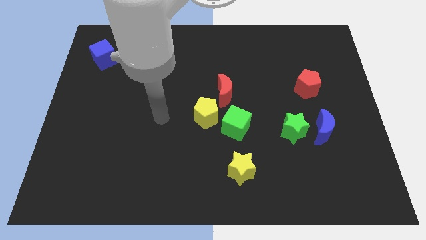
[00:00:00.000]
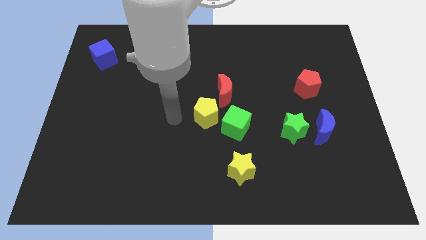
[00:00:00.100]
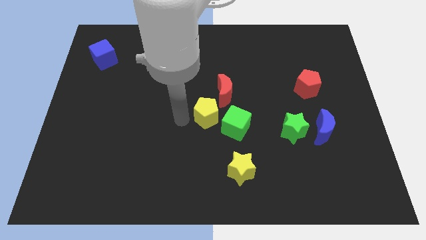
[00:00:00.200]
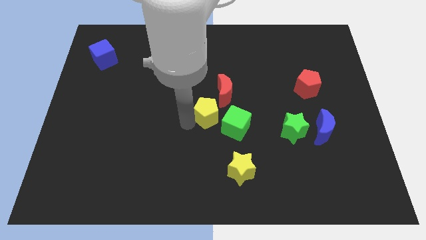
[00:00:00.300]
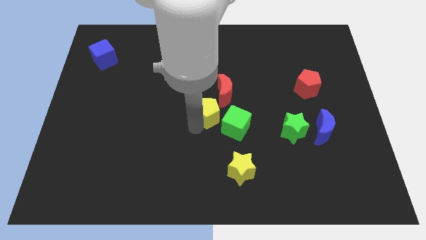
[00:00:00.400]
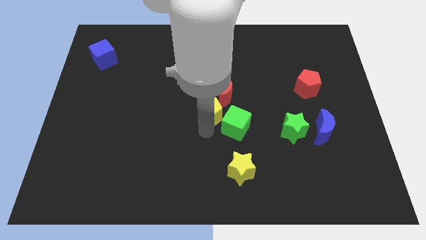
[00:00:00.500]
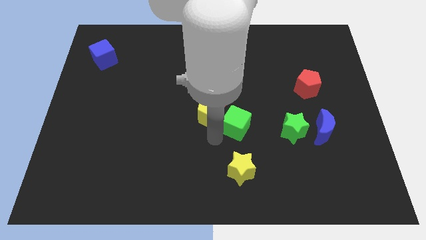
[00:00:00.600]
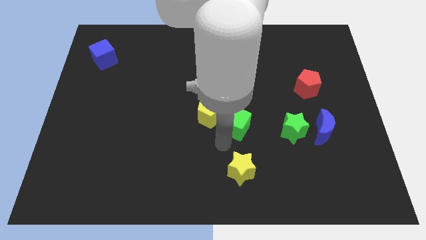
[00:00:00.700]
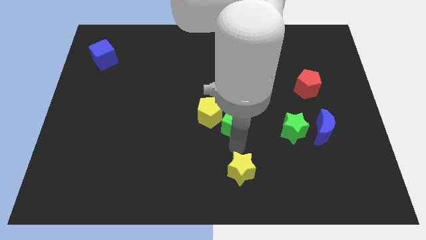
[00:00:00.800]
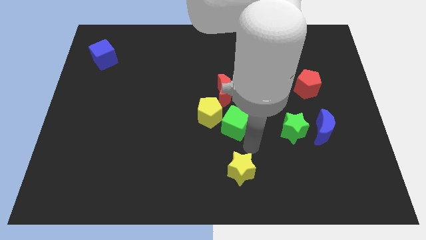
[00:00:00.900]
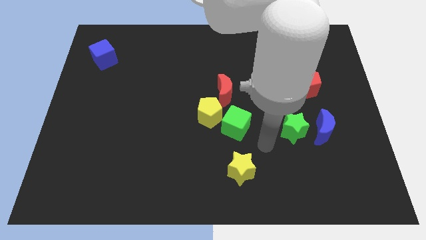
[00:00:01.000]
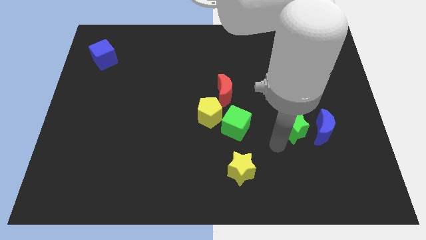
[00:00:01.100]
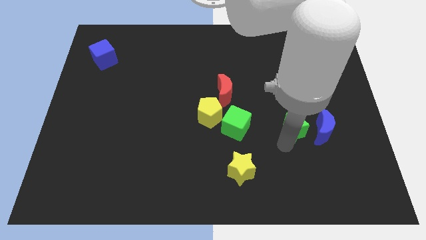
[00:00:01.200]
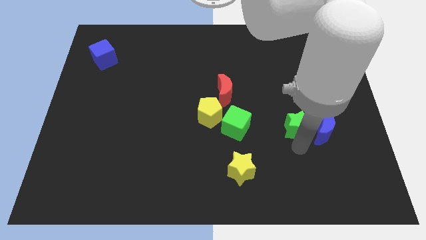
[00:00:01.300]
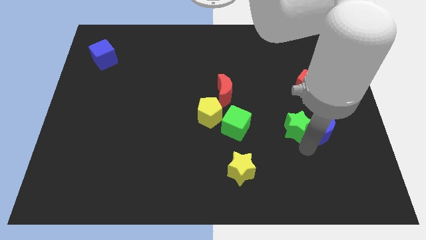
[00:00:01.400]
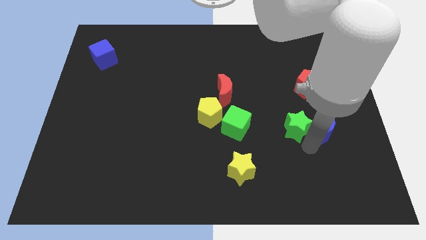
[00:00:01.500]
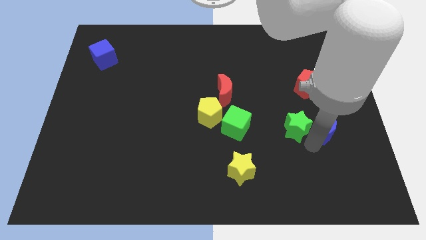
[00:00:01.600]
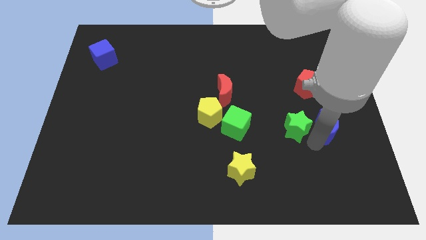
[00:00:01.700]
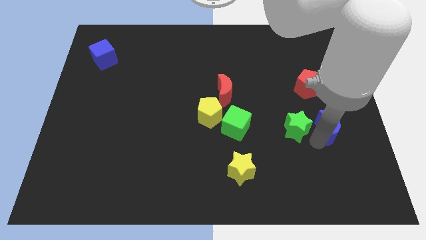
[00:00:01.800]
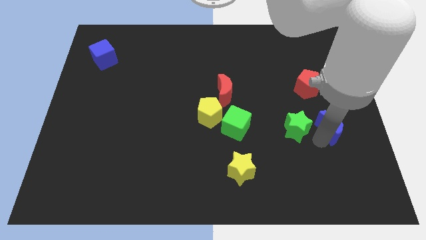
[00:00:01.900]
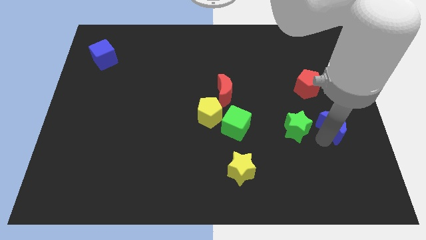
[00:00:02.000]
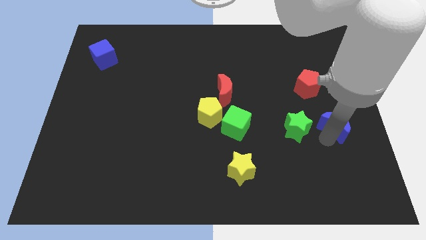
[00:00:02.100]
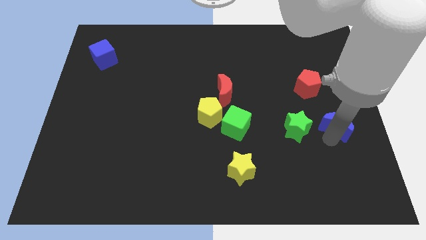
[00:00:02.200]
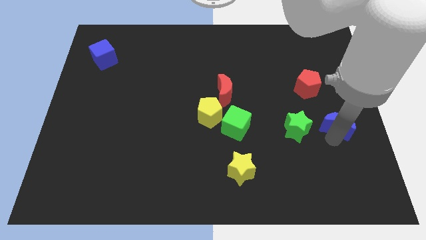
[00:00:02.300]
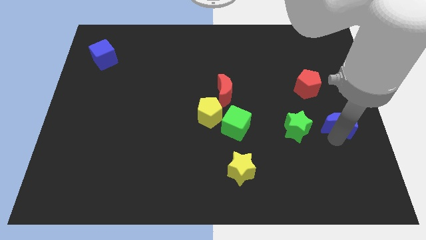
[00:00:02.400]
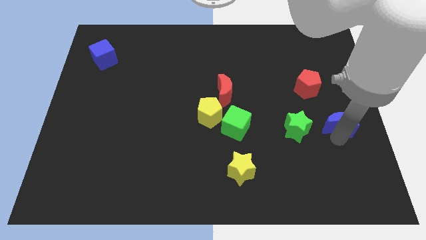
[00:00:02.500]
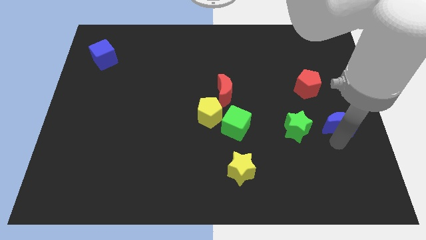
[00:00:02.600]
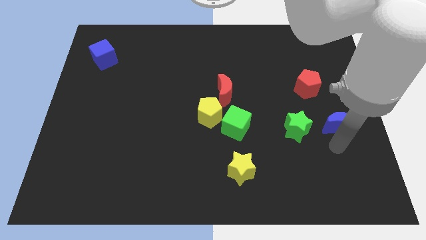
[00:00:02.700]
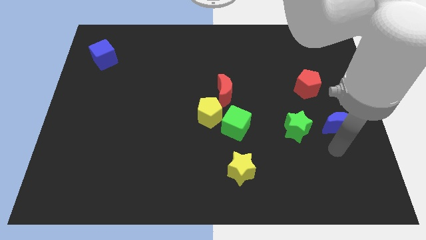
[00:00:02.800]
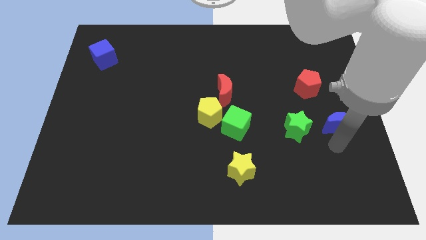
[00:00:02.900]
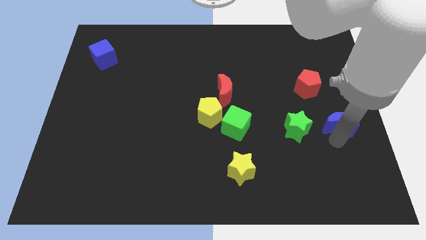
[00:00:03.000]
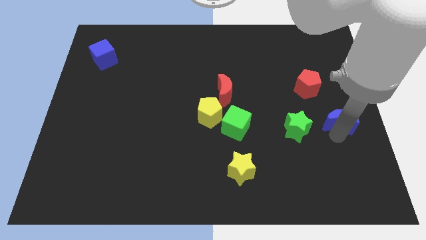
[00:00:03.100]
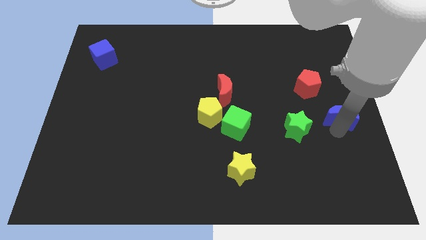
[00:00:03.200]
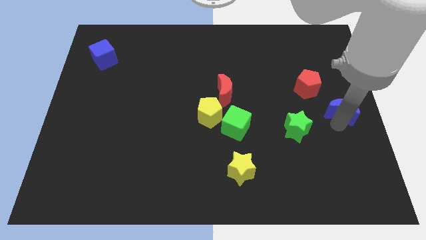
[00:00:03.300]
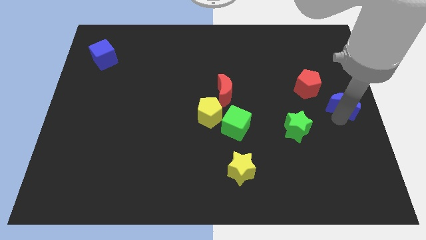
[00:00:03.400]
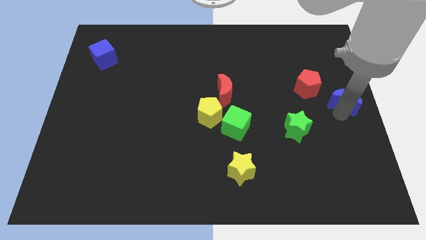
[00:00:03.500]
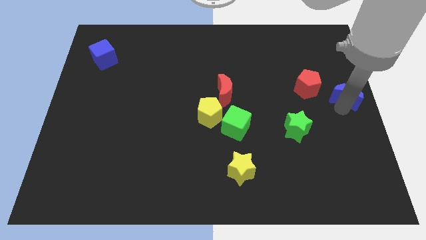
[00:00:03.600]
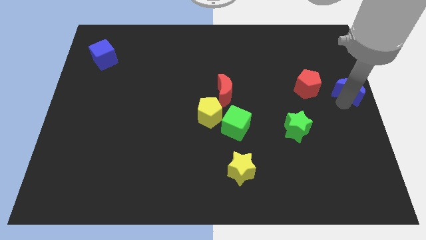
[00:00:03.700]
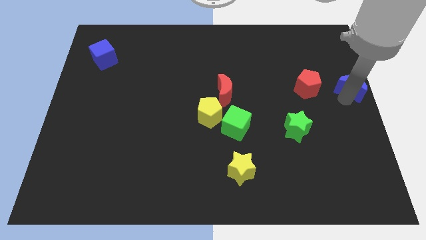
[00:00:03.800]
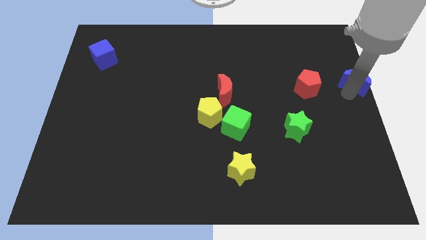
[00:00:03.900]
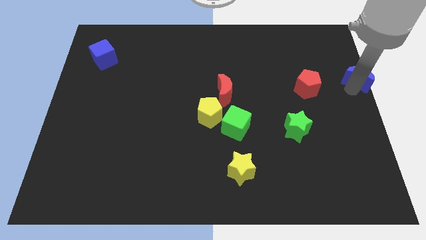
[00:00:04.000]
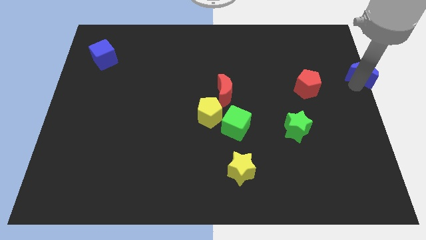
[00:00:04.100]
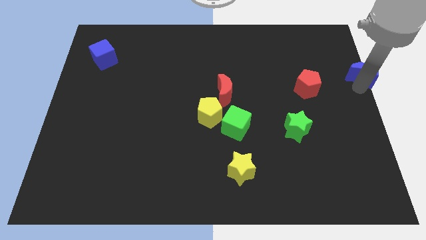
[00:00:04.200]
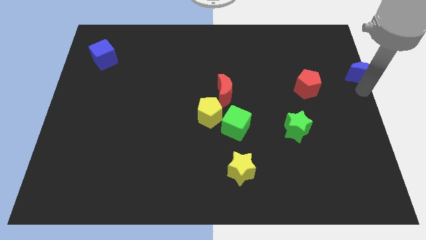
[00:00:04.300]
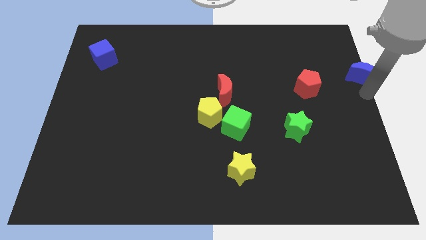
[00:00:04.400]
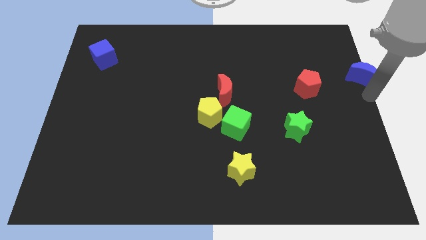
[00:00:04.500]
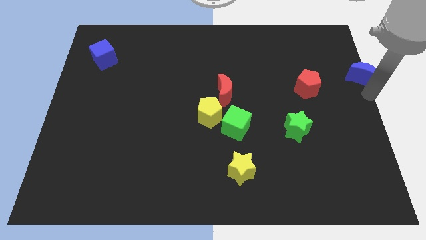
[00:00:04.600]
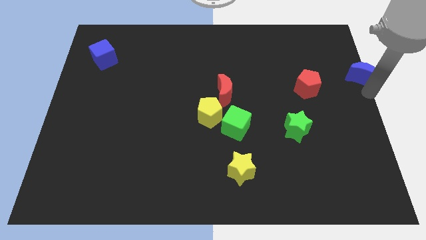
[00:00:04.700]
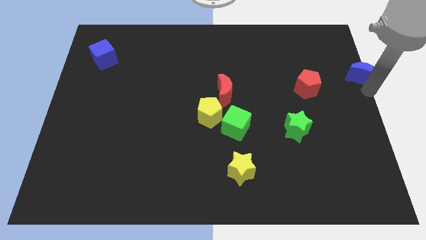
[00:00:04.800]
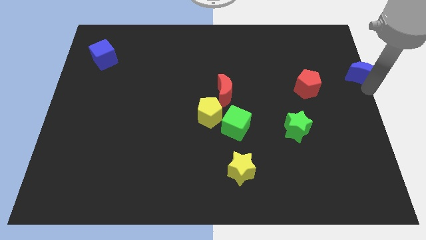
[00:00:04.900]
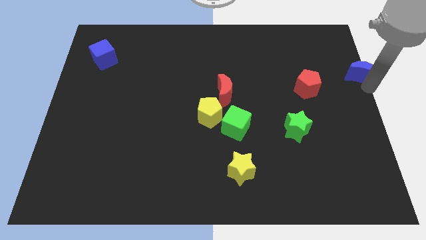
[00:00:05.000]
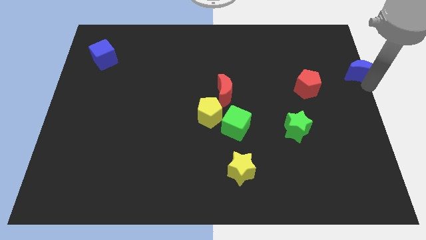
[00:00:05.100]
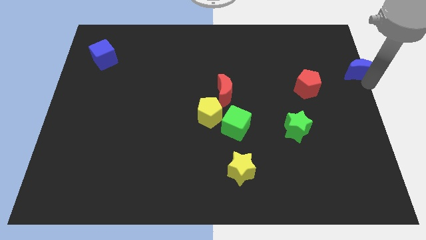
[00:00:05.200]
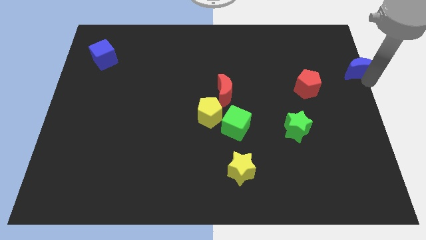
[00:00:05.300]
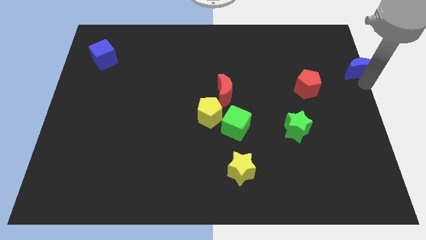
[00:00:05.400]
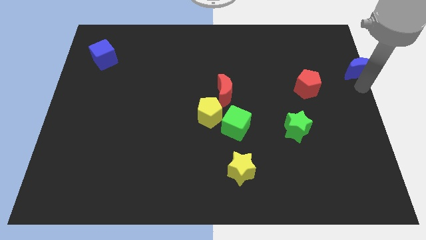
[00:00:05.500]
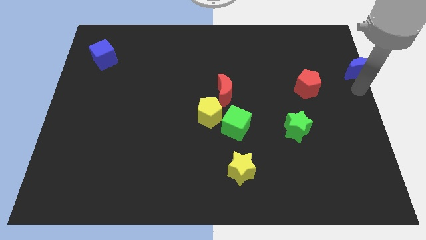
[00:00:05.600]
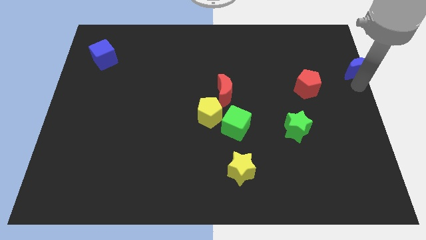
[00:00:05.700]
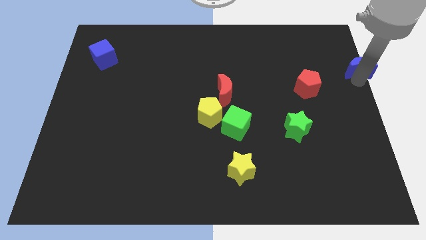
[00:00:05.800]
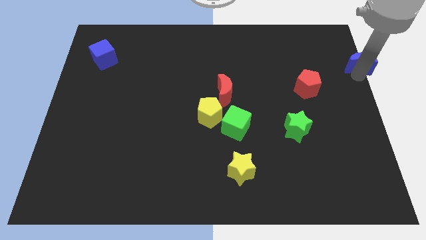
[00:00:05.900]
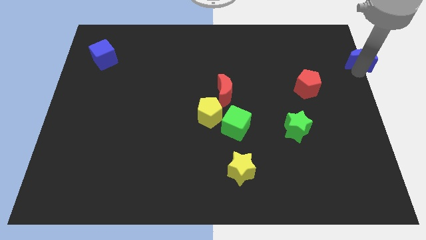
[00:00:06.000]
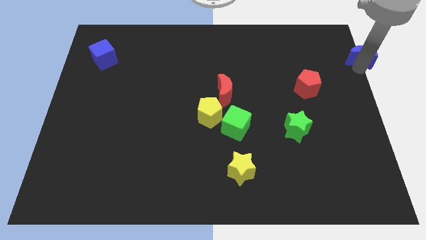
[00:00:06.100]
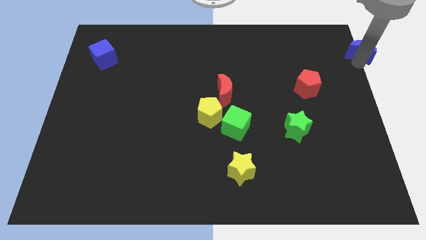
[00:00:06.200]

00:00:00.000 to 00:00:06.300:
move the blue moon to the upper right corner
